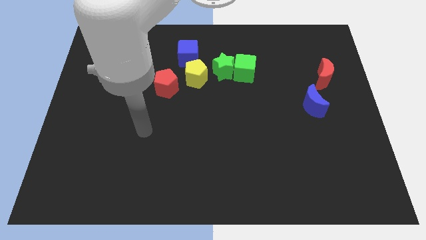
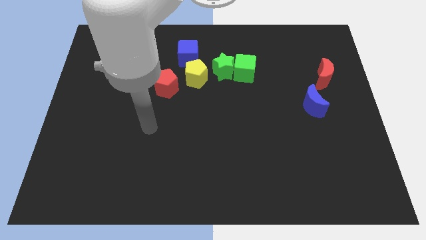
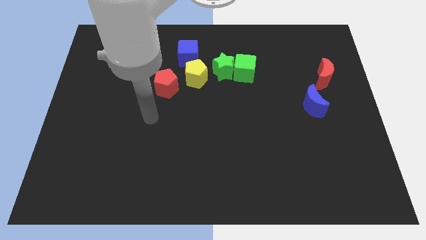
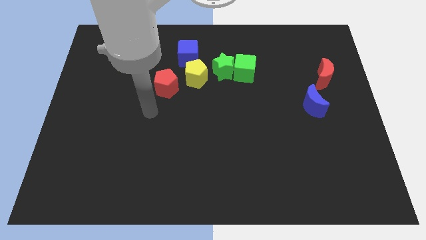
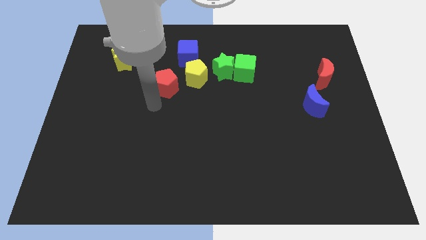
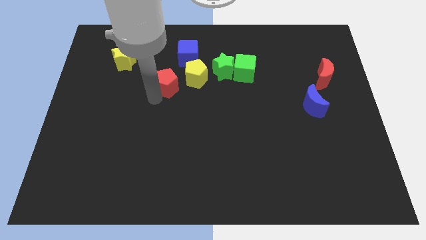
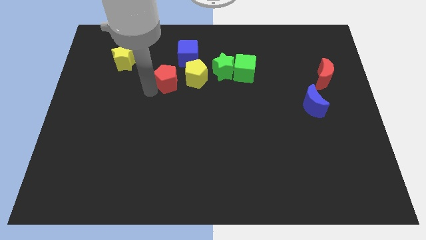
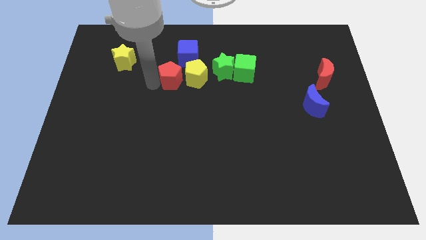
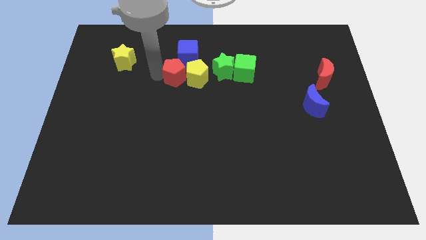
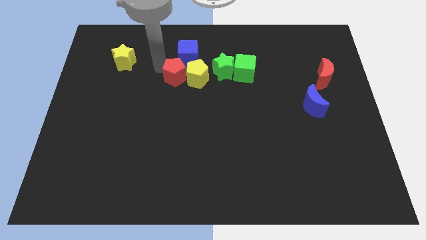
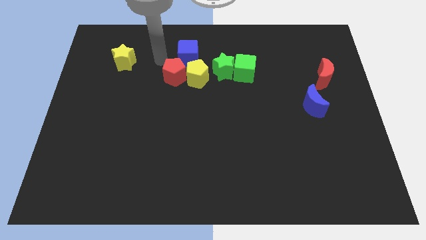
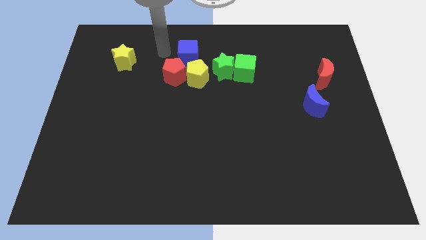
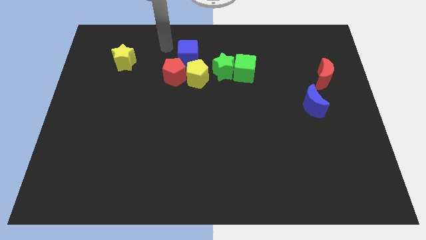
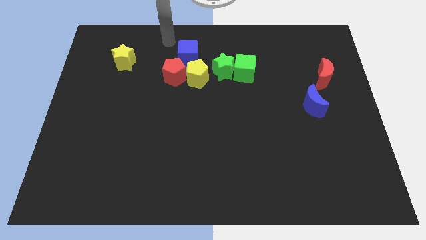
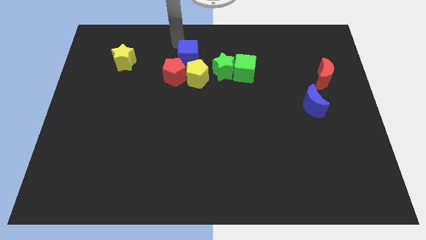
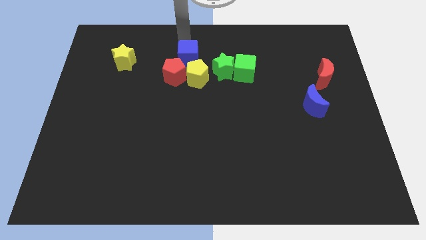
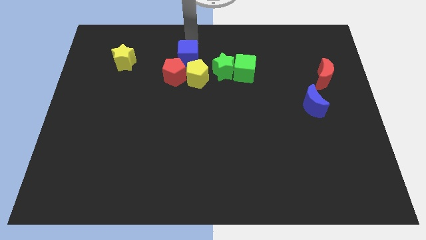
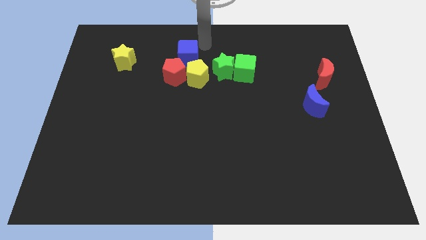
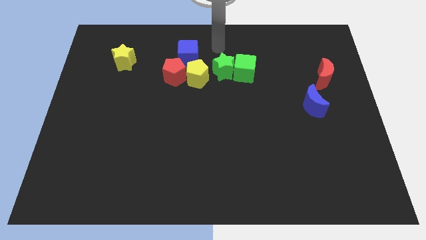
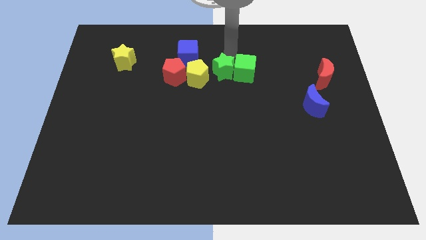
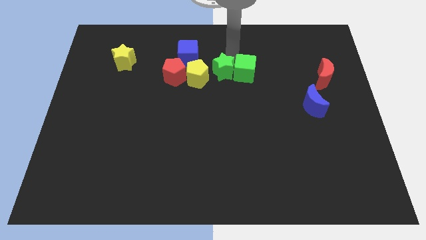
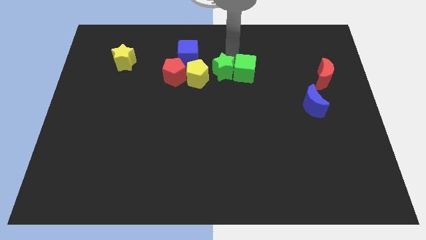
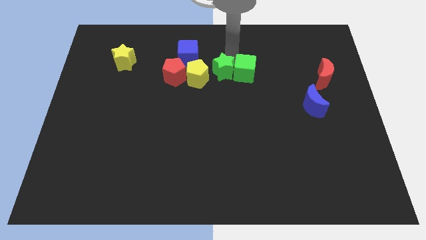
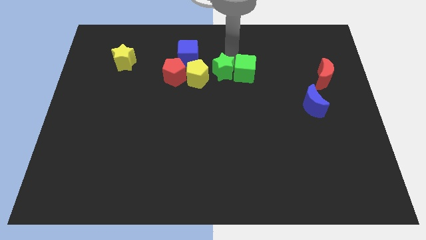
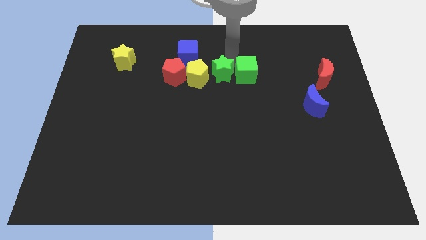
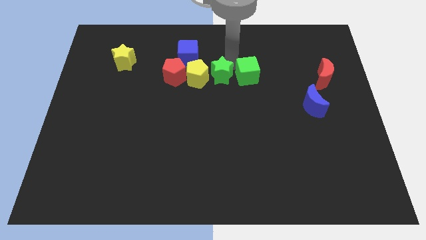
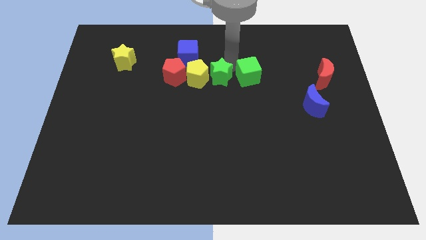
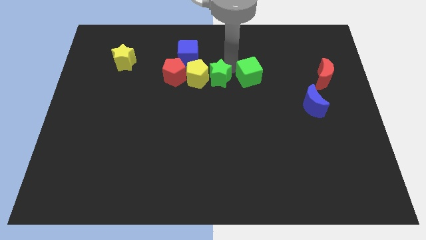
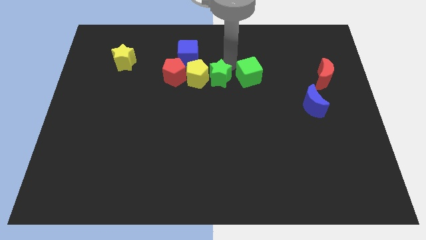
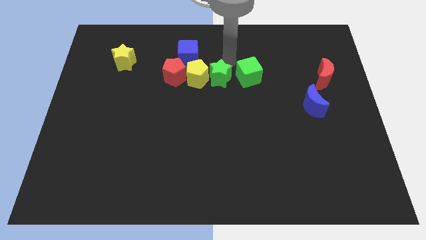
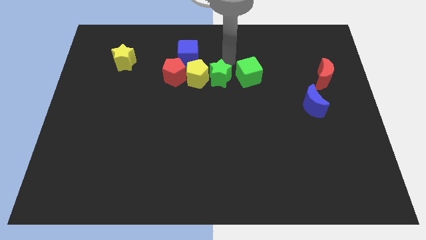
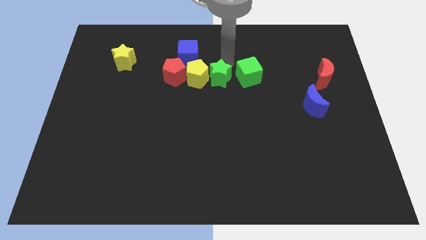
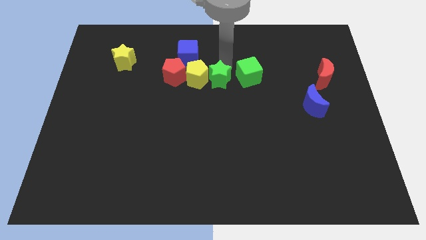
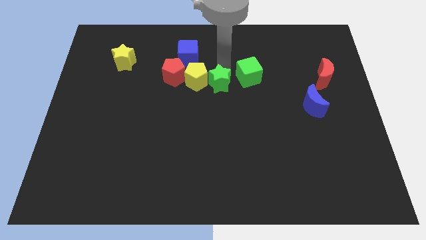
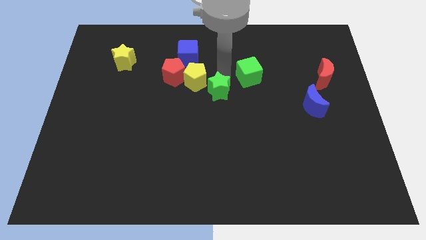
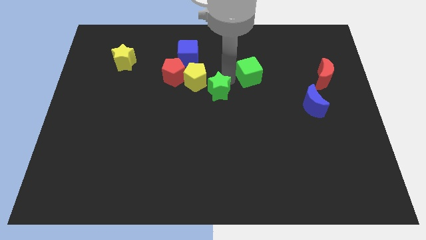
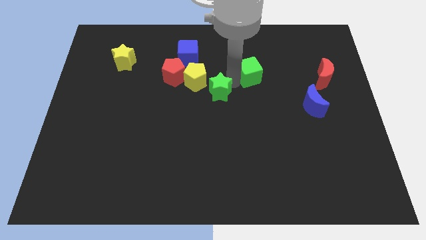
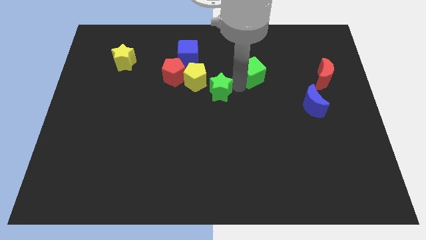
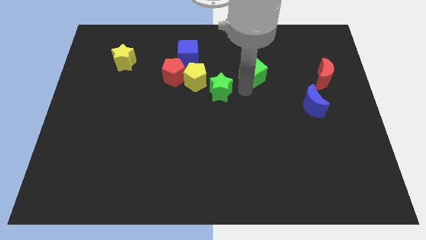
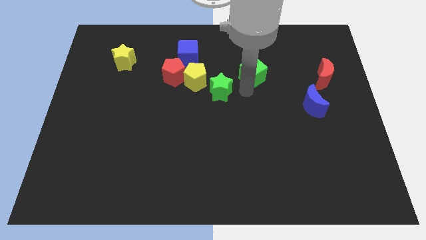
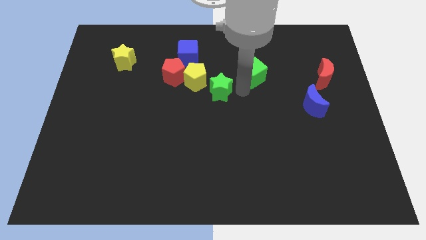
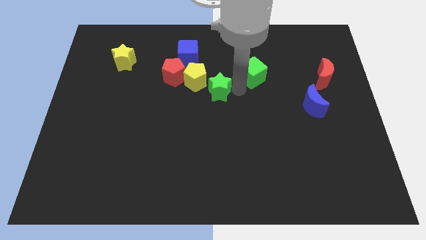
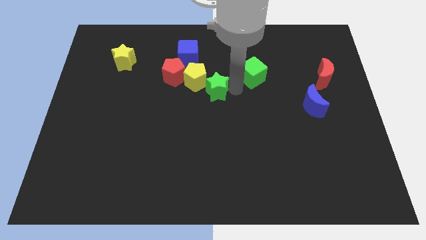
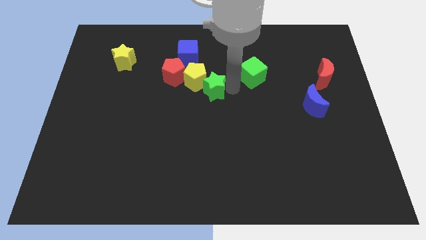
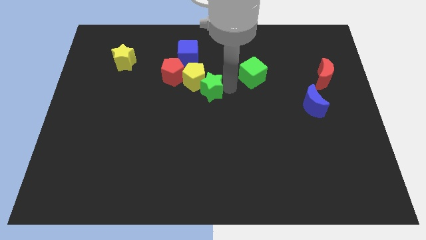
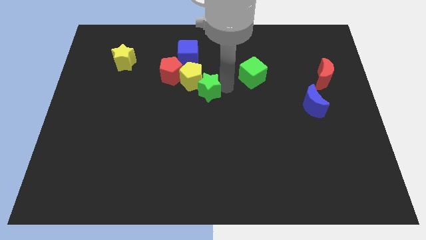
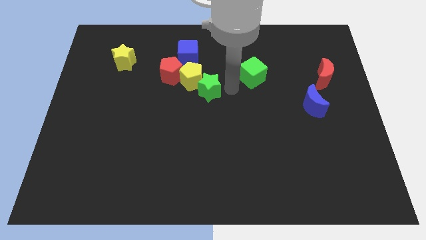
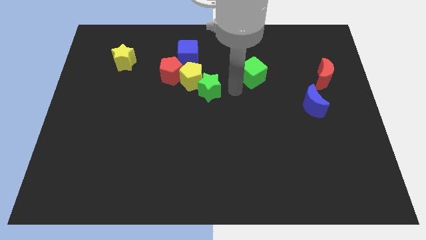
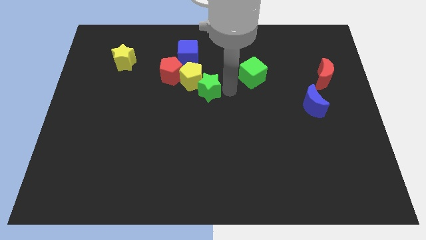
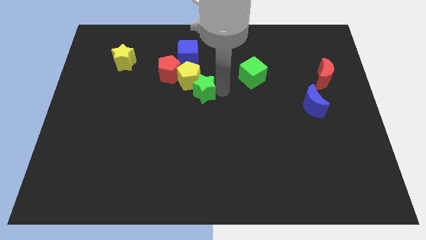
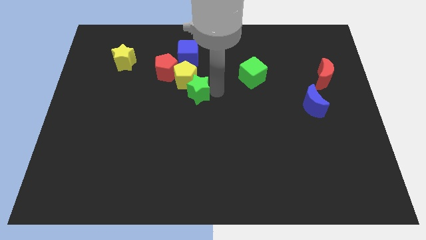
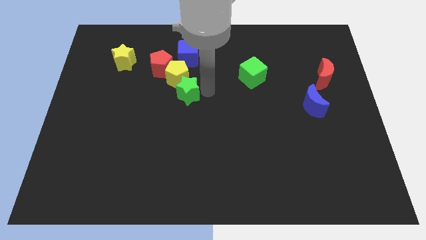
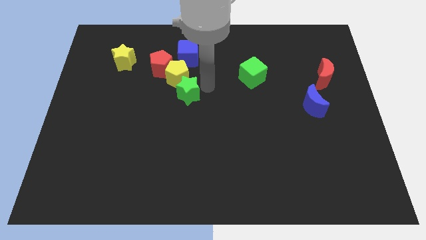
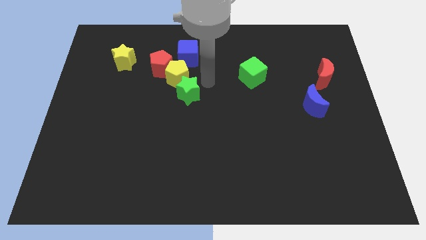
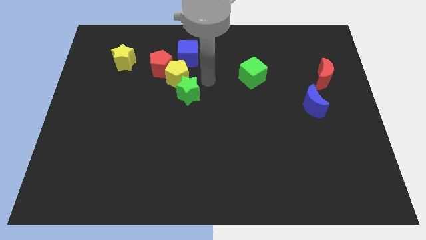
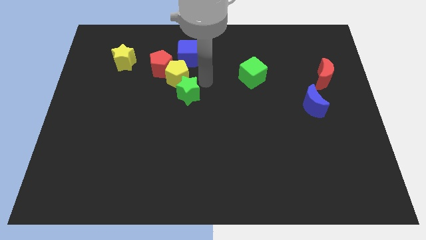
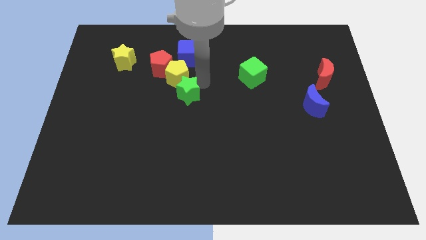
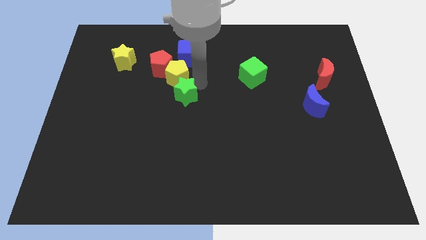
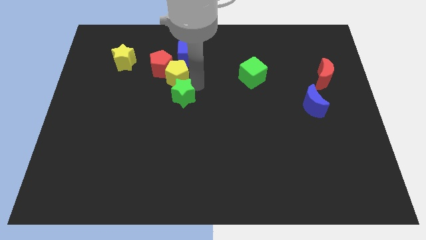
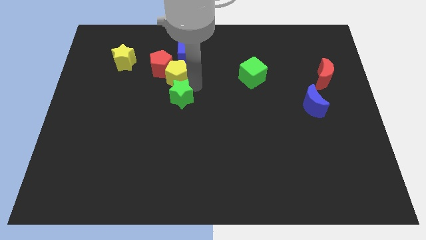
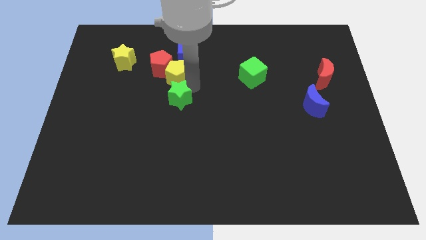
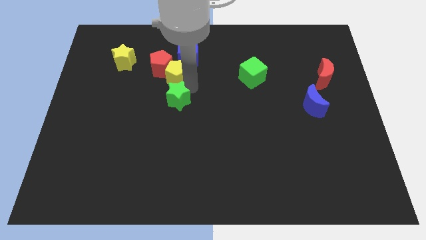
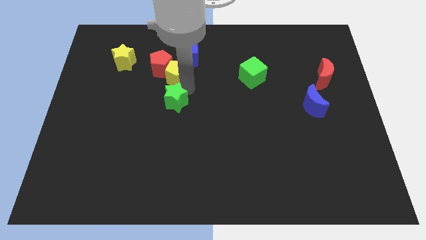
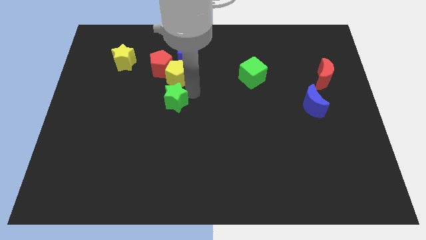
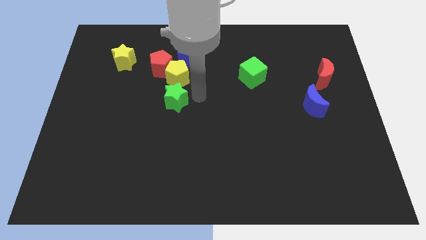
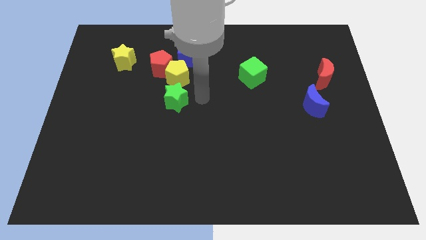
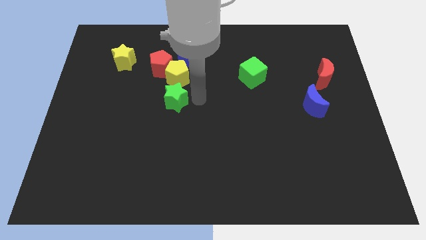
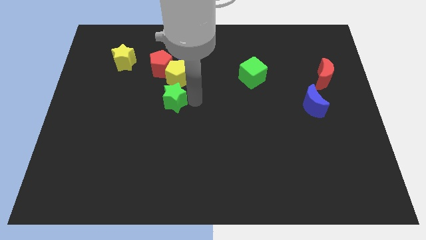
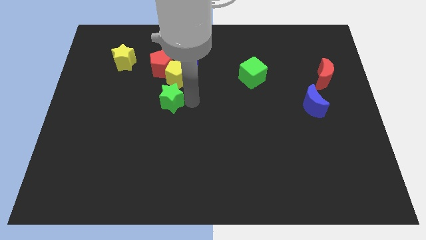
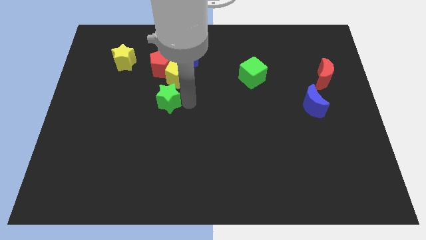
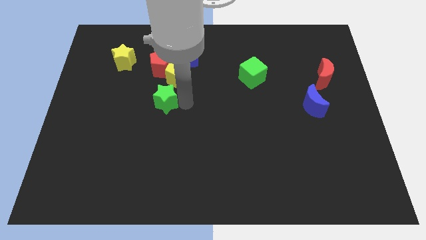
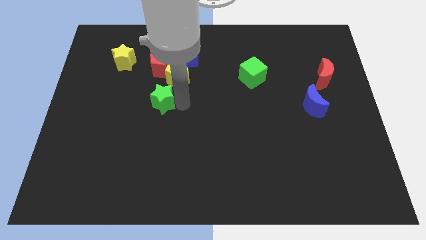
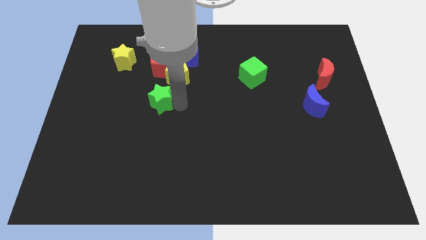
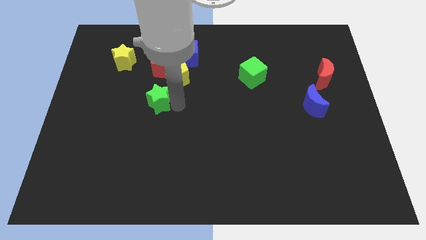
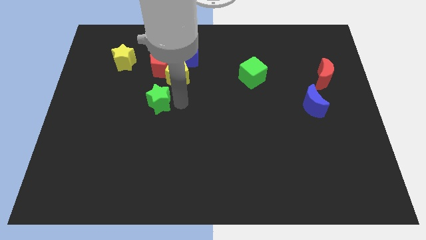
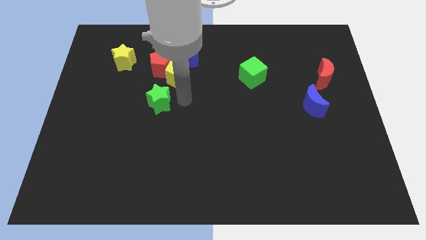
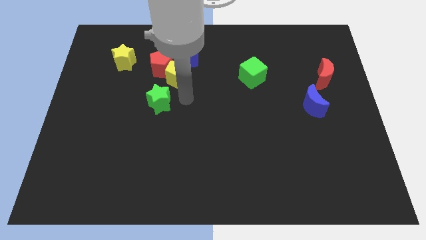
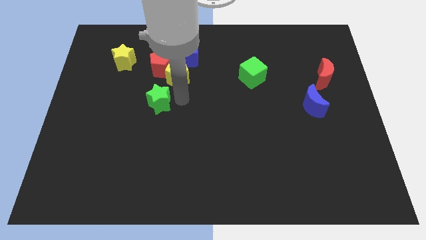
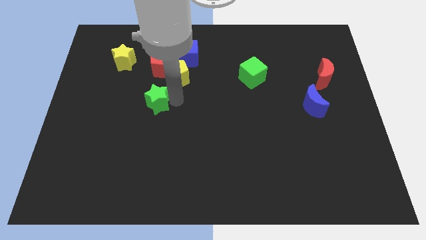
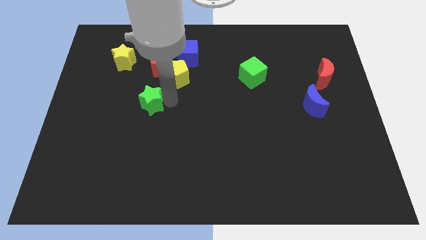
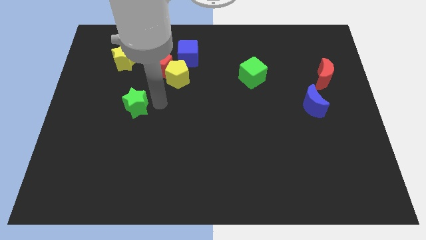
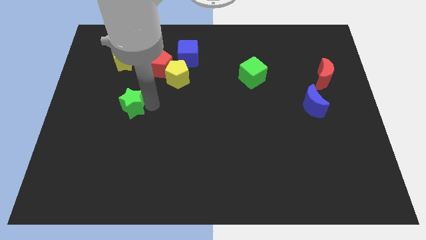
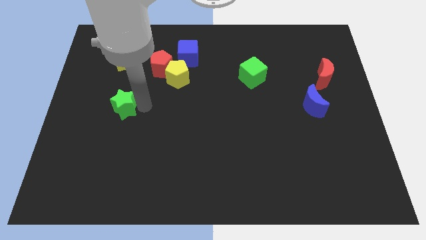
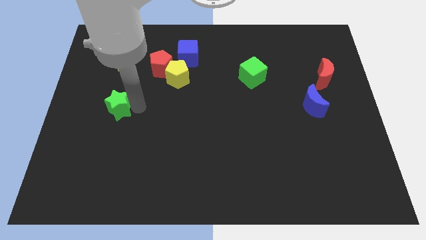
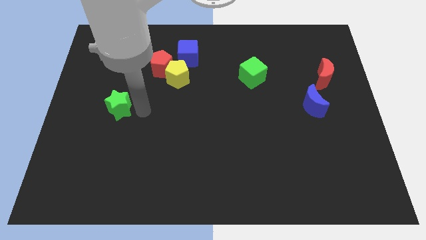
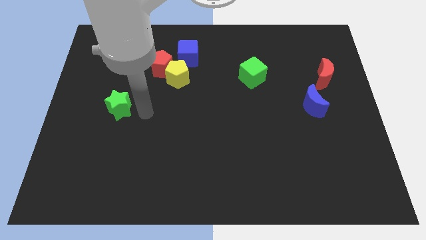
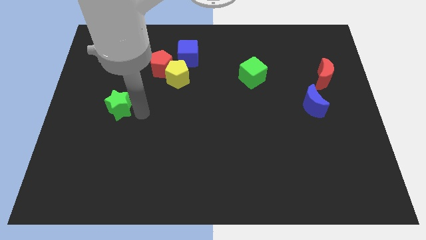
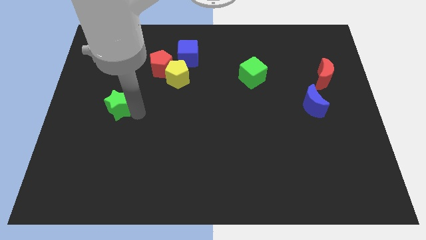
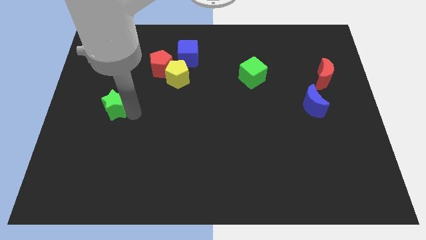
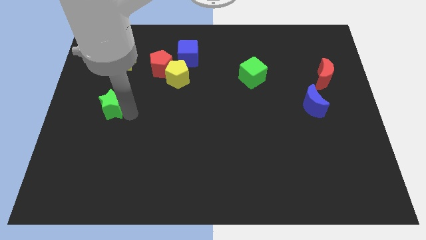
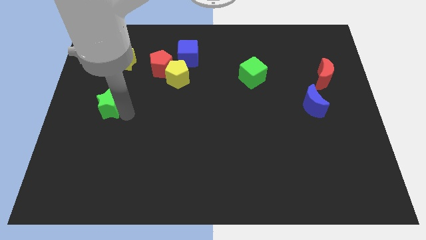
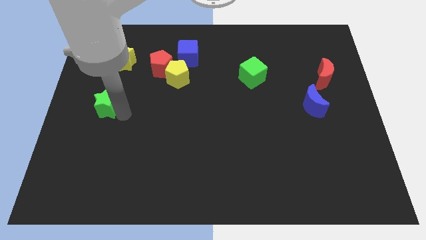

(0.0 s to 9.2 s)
slide the green star to the left side of the board
